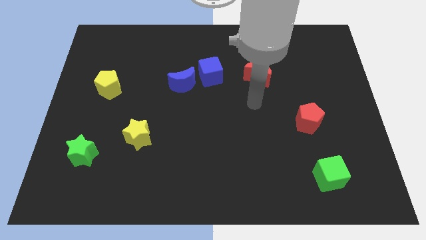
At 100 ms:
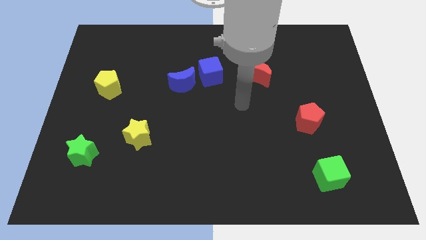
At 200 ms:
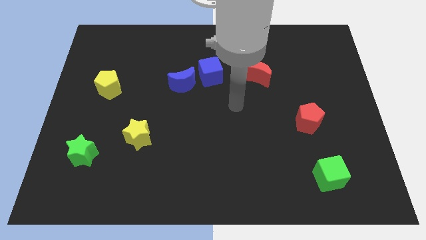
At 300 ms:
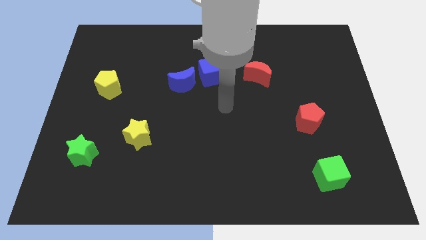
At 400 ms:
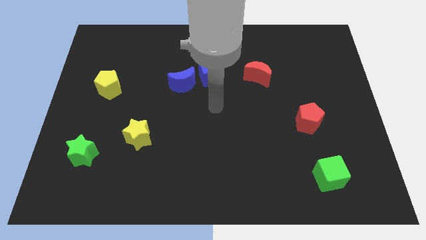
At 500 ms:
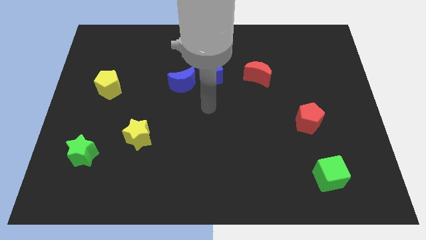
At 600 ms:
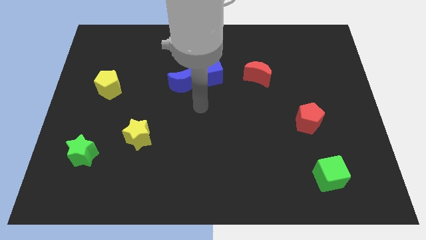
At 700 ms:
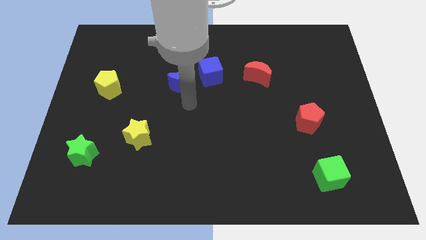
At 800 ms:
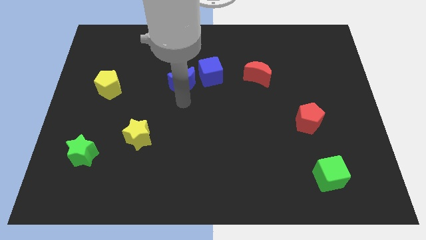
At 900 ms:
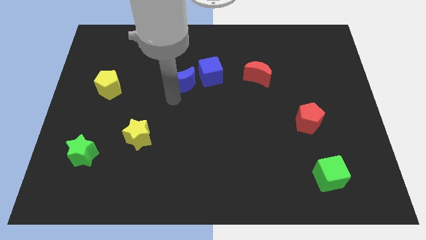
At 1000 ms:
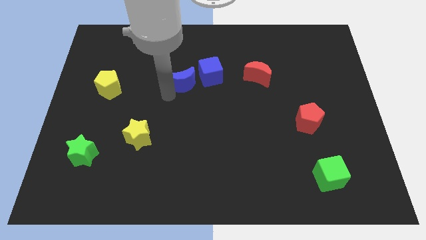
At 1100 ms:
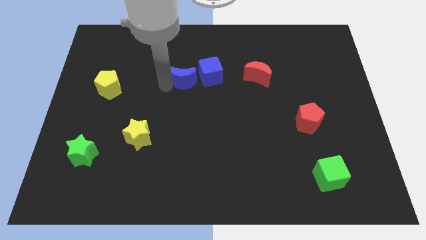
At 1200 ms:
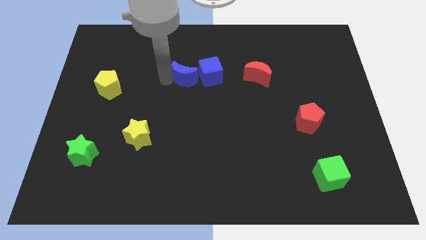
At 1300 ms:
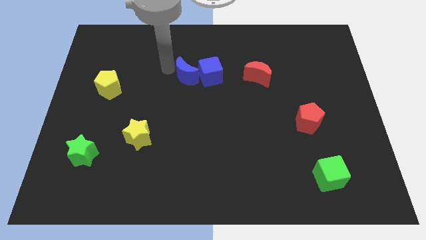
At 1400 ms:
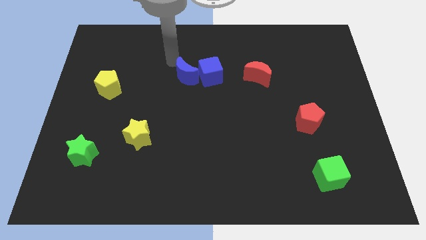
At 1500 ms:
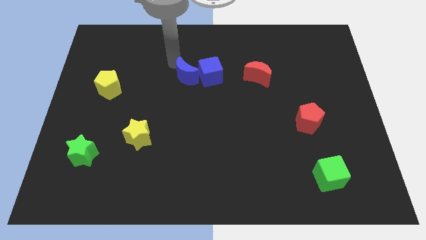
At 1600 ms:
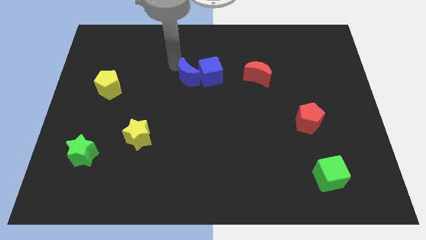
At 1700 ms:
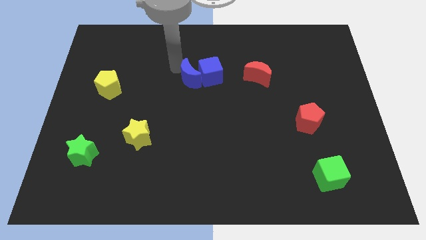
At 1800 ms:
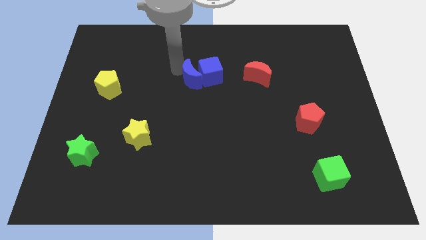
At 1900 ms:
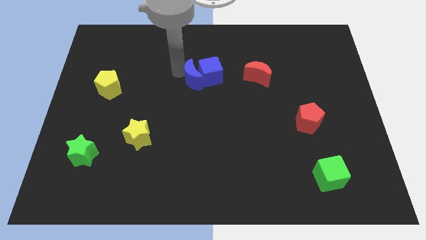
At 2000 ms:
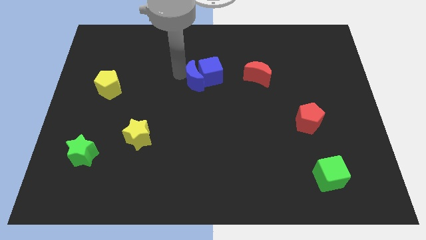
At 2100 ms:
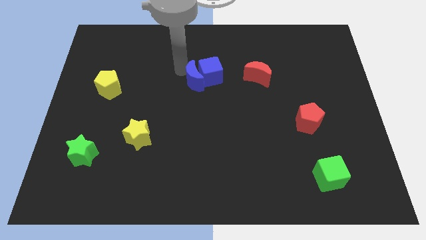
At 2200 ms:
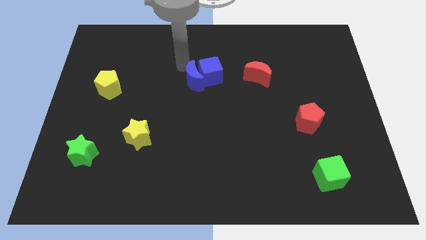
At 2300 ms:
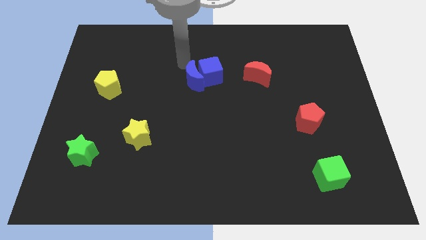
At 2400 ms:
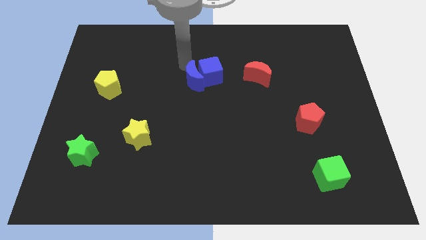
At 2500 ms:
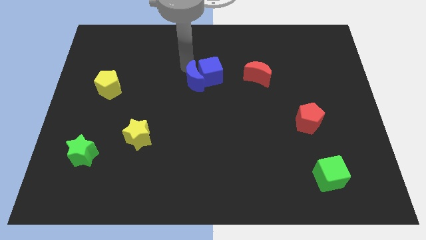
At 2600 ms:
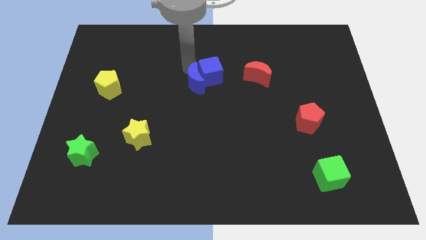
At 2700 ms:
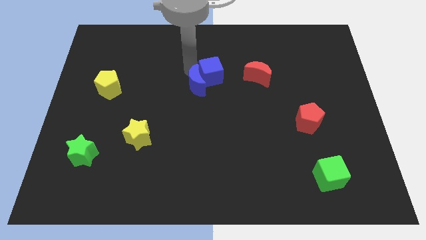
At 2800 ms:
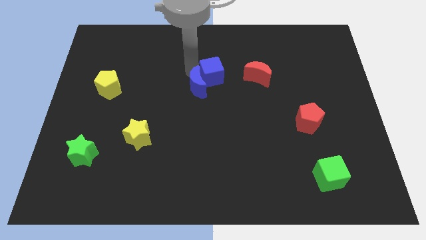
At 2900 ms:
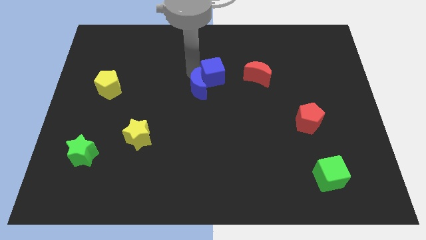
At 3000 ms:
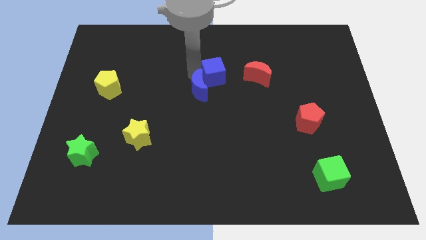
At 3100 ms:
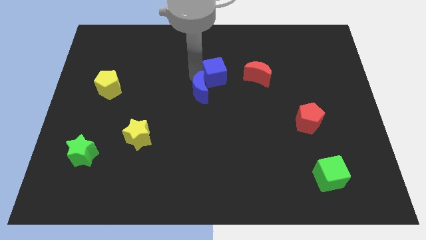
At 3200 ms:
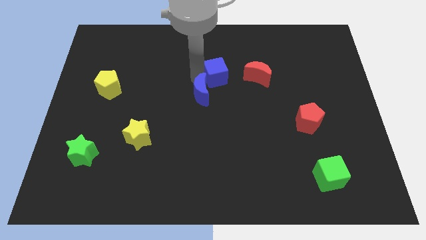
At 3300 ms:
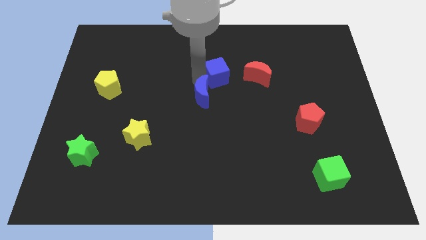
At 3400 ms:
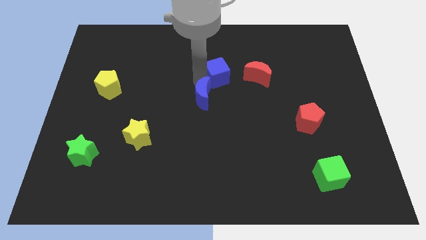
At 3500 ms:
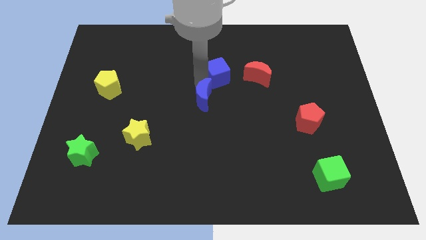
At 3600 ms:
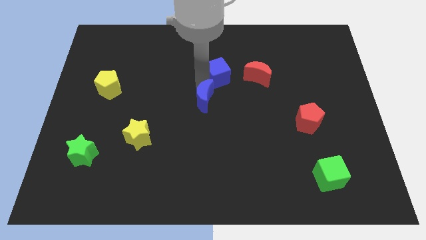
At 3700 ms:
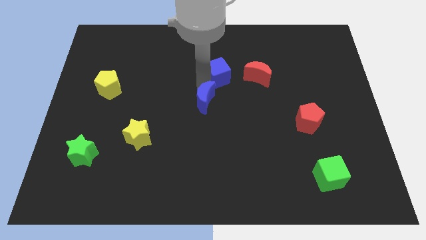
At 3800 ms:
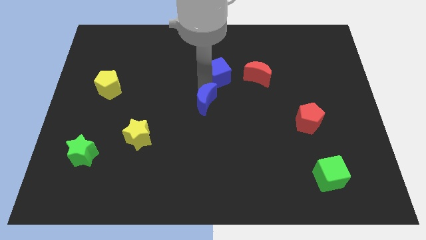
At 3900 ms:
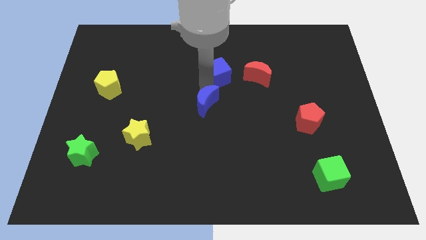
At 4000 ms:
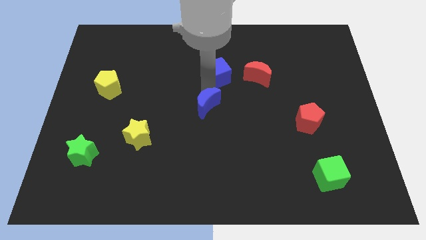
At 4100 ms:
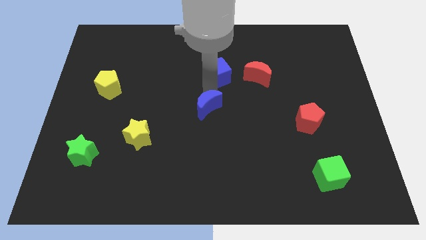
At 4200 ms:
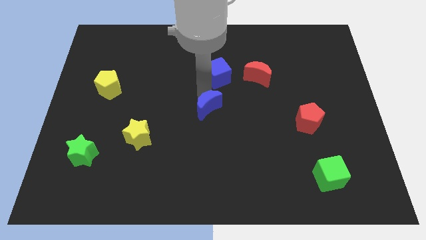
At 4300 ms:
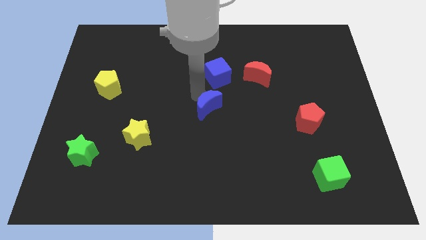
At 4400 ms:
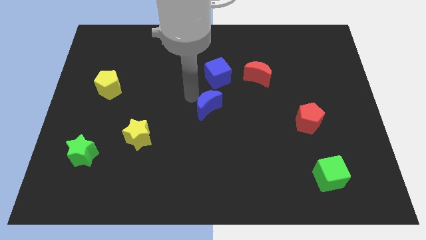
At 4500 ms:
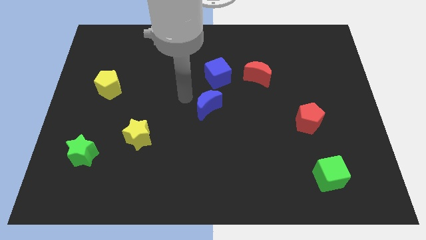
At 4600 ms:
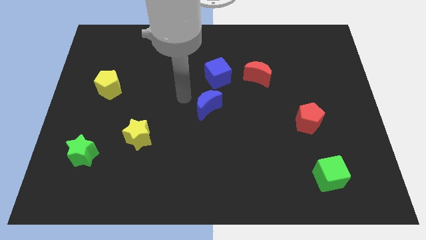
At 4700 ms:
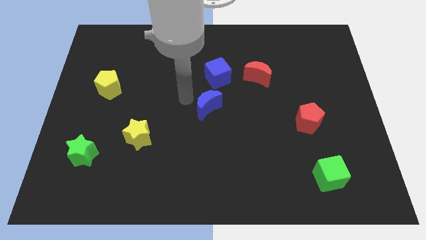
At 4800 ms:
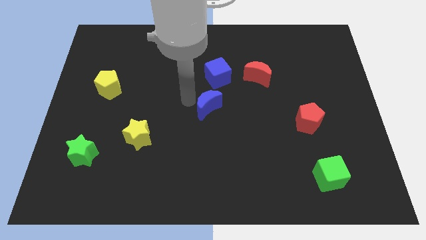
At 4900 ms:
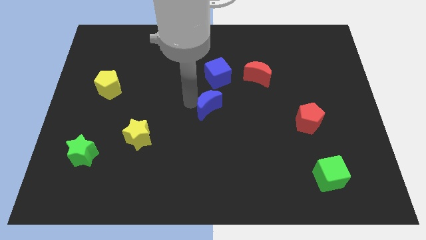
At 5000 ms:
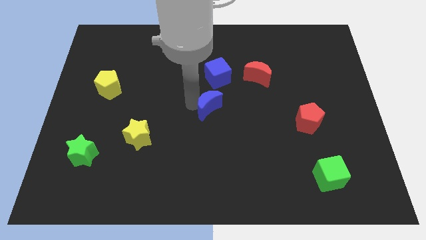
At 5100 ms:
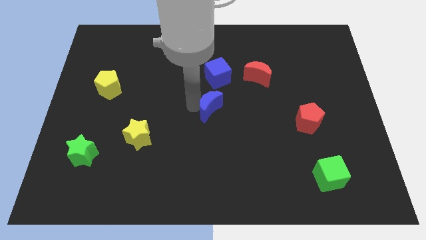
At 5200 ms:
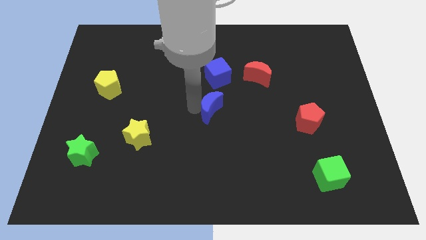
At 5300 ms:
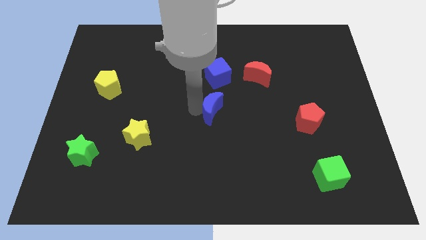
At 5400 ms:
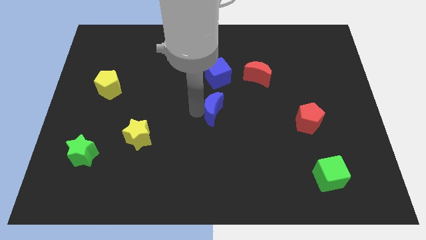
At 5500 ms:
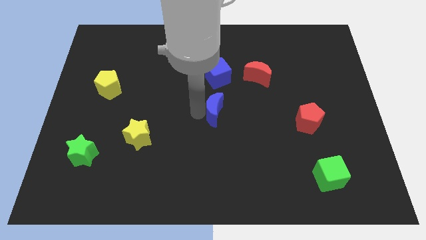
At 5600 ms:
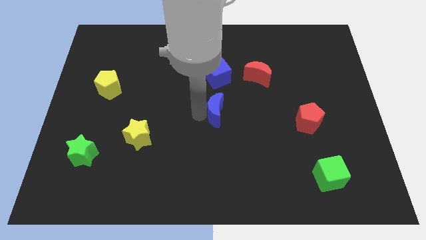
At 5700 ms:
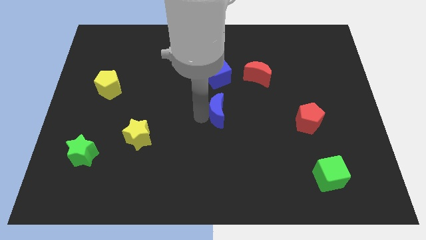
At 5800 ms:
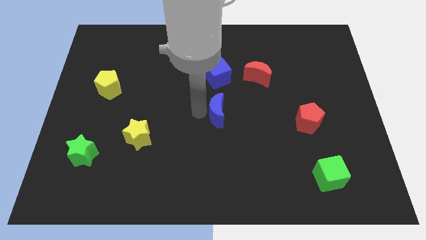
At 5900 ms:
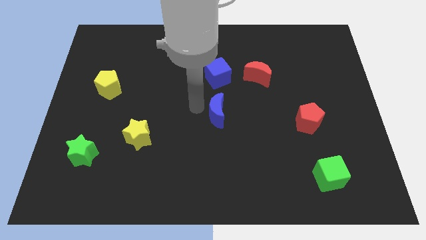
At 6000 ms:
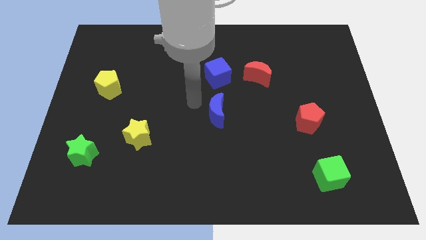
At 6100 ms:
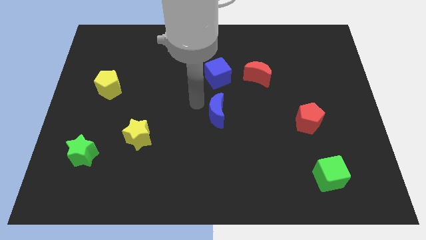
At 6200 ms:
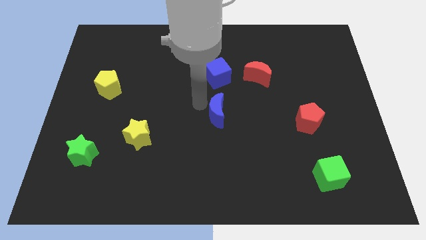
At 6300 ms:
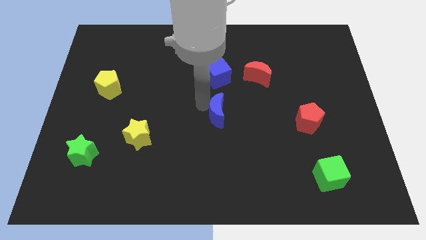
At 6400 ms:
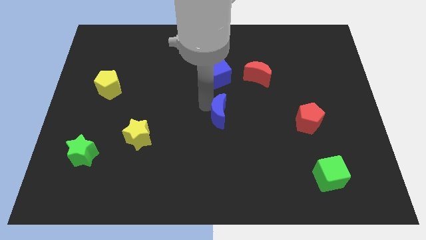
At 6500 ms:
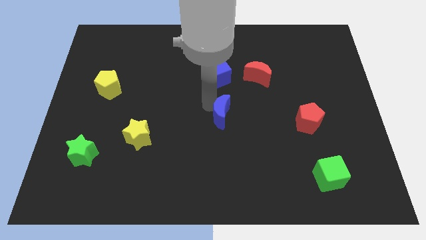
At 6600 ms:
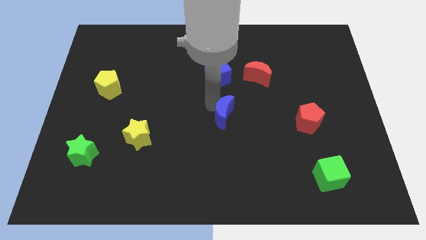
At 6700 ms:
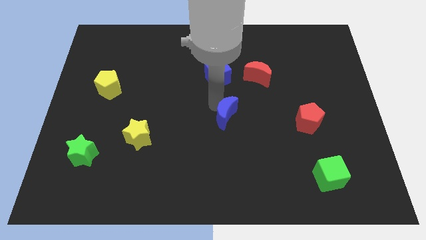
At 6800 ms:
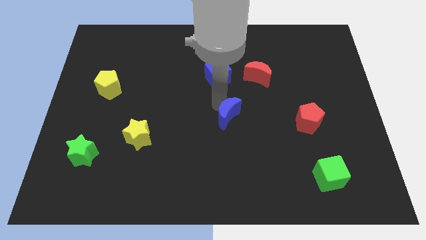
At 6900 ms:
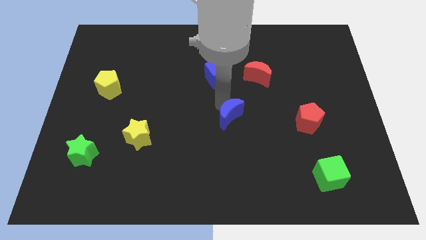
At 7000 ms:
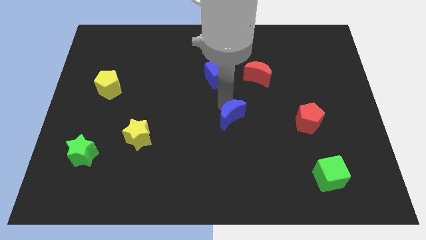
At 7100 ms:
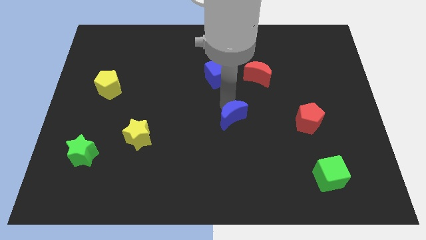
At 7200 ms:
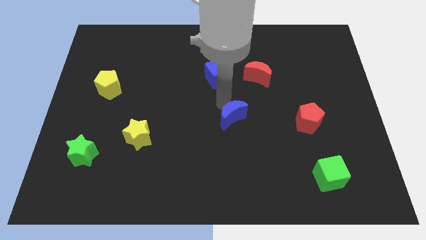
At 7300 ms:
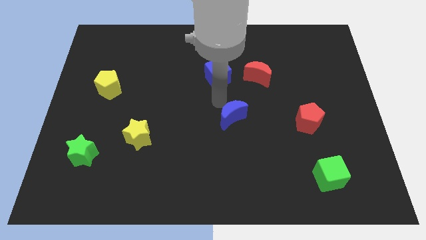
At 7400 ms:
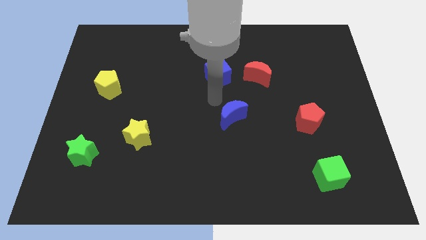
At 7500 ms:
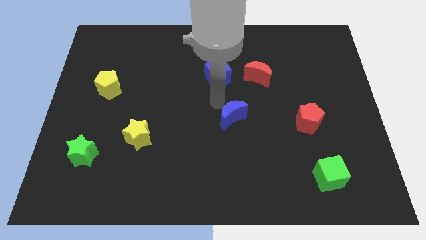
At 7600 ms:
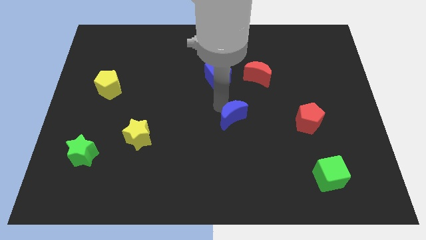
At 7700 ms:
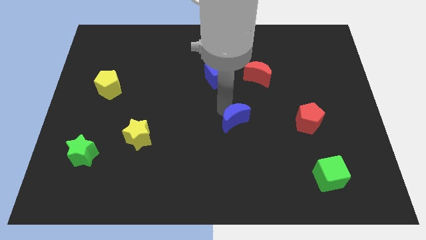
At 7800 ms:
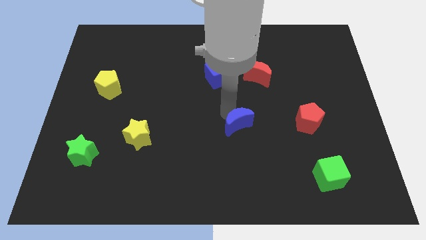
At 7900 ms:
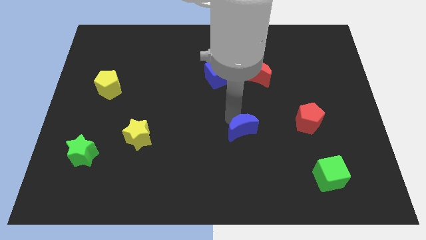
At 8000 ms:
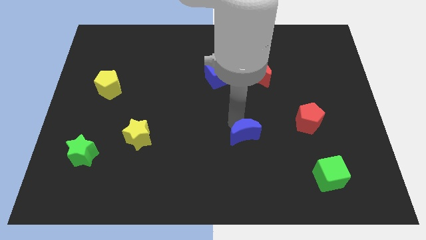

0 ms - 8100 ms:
push the blue moon downwards and to the right diagonally

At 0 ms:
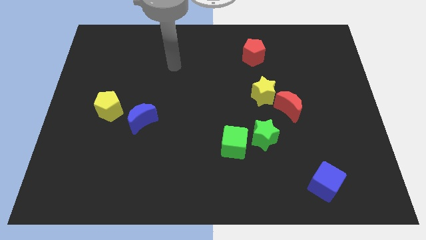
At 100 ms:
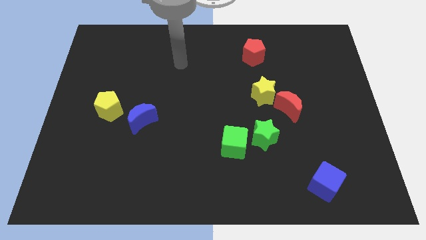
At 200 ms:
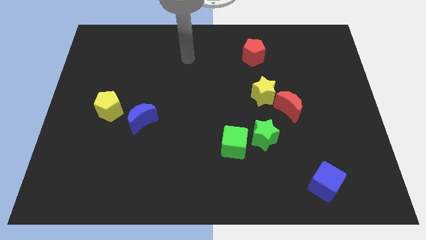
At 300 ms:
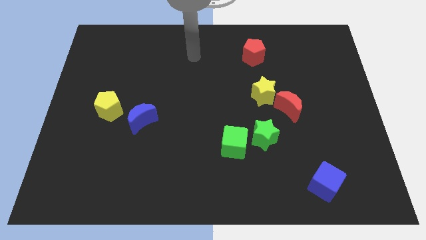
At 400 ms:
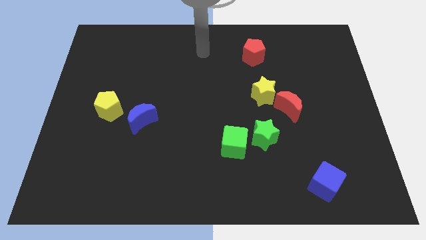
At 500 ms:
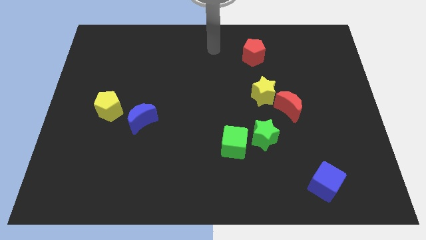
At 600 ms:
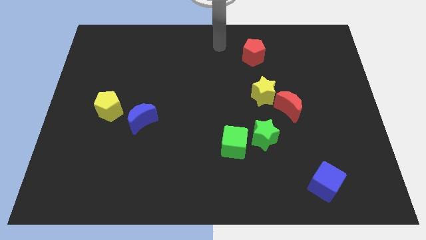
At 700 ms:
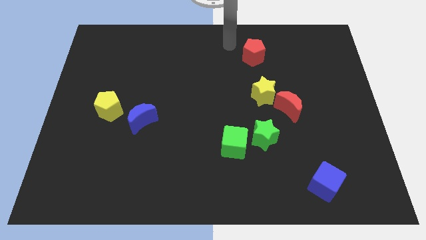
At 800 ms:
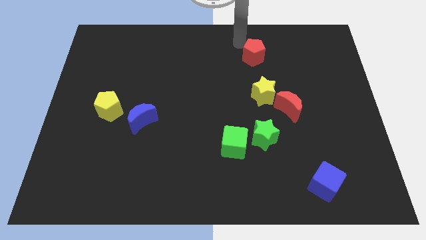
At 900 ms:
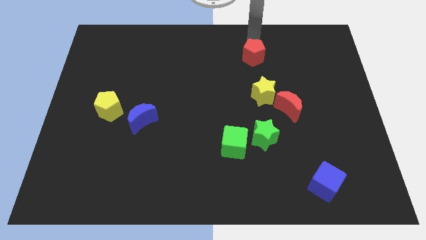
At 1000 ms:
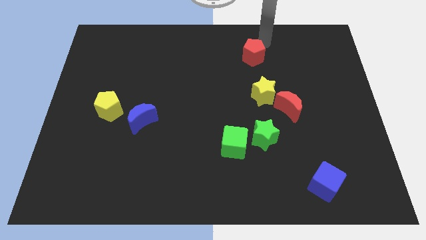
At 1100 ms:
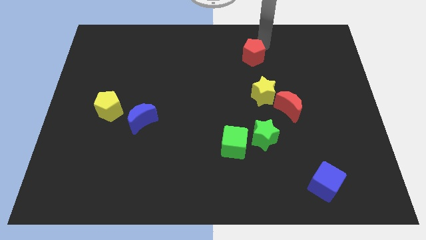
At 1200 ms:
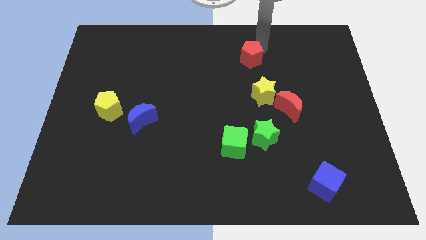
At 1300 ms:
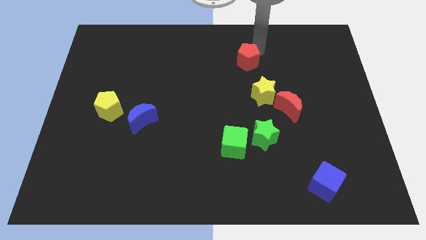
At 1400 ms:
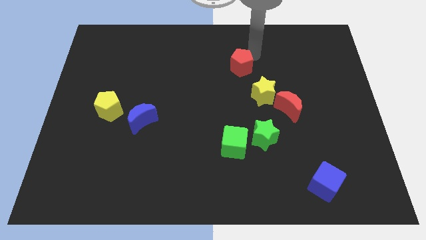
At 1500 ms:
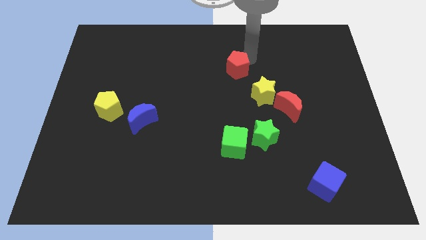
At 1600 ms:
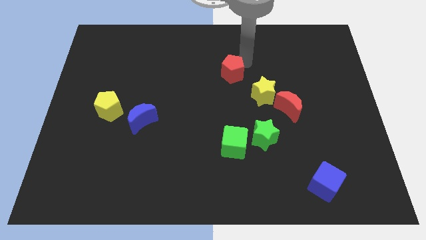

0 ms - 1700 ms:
push the red pentagon slightly down and then to the left
